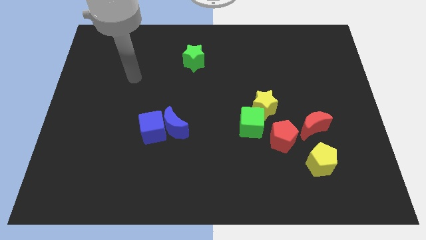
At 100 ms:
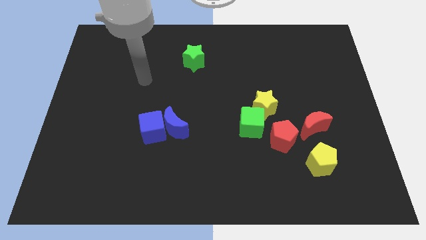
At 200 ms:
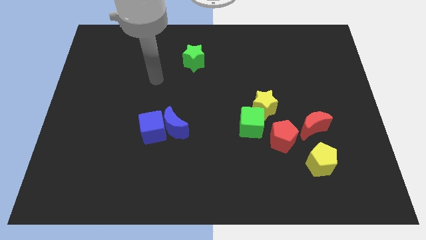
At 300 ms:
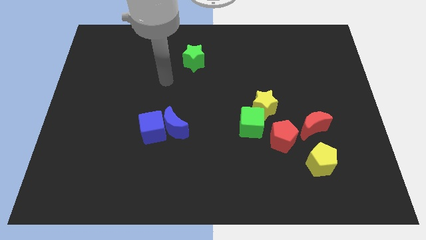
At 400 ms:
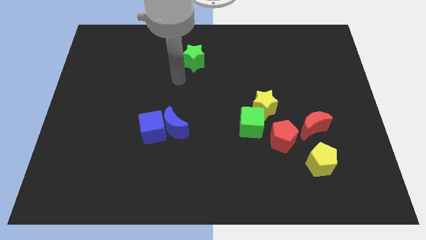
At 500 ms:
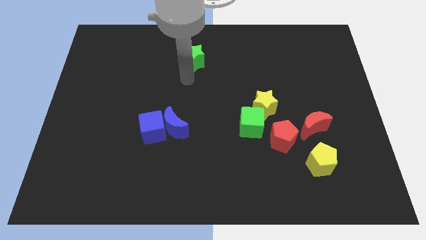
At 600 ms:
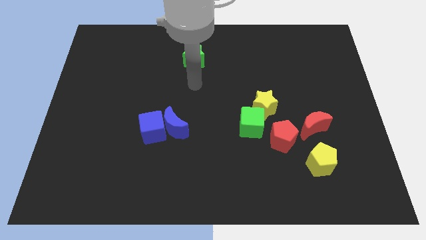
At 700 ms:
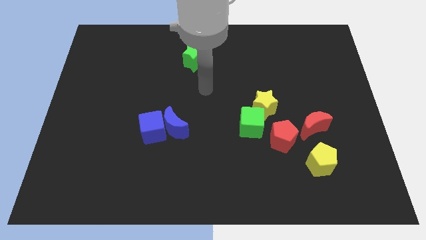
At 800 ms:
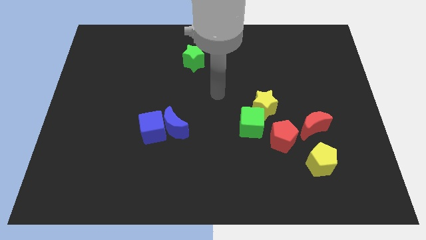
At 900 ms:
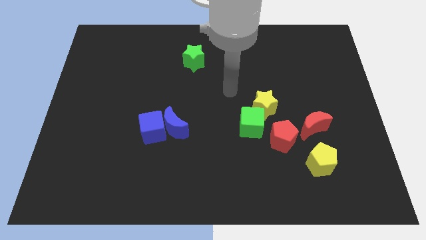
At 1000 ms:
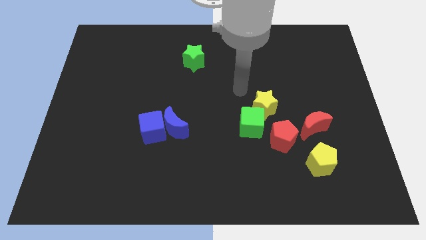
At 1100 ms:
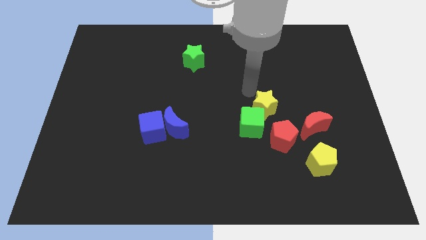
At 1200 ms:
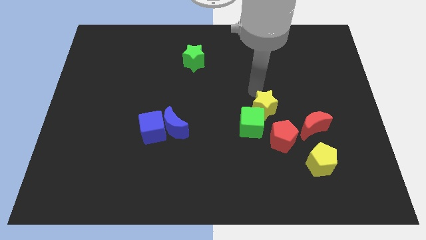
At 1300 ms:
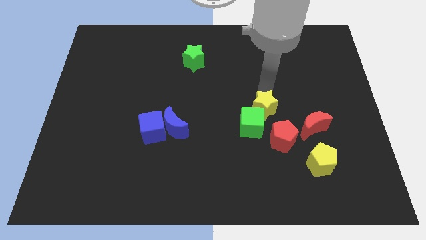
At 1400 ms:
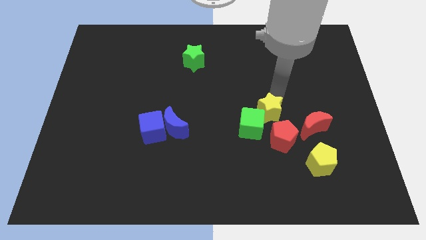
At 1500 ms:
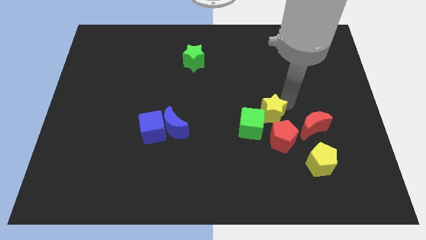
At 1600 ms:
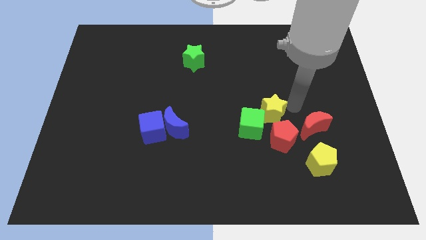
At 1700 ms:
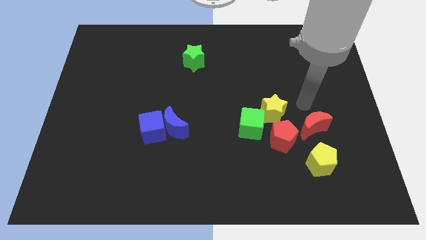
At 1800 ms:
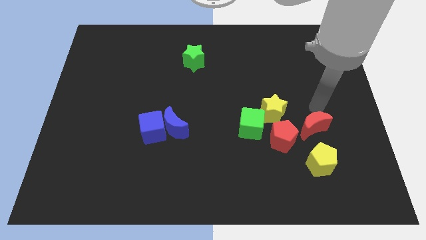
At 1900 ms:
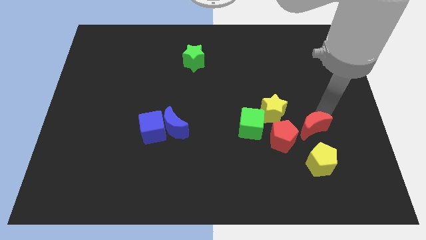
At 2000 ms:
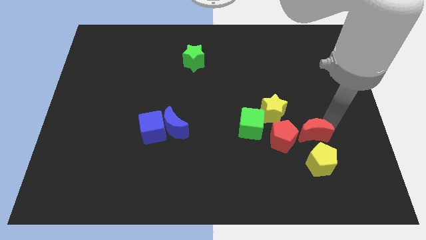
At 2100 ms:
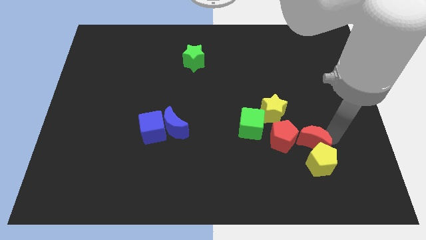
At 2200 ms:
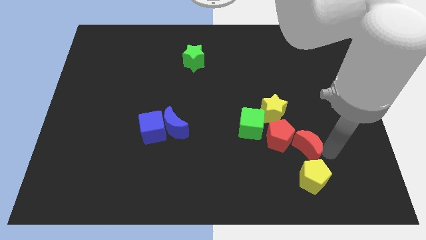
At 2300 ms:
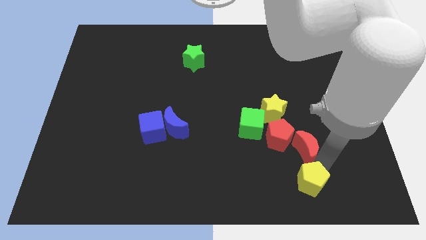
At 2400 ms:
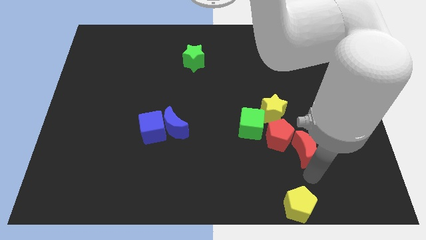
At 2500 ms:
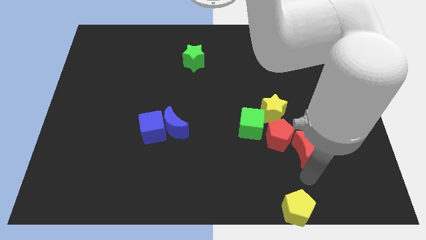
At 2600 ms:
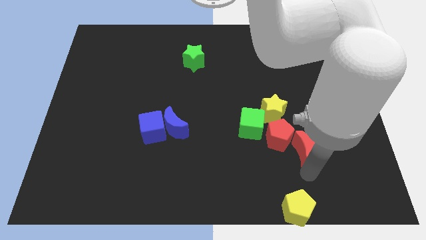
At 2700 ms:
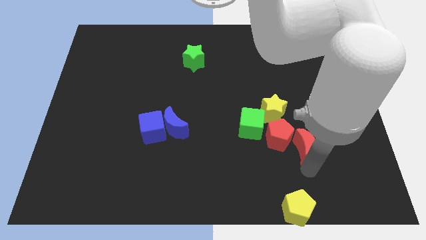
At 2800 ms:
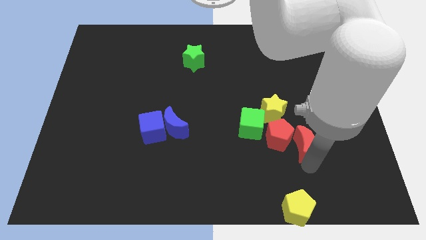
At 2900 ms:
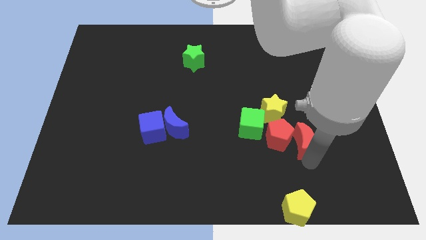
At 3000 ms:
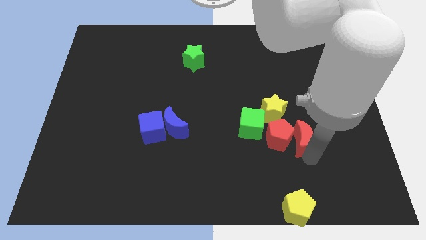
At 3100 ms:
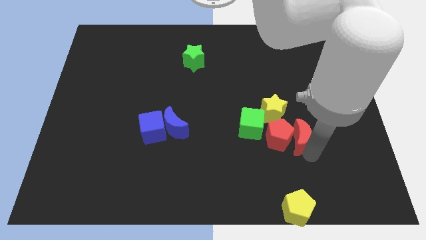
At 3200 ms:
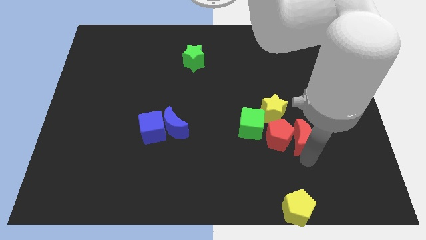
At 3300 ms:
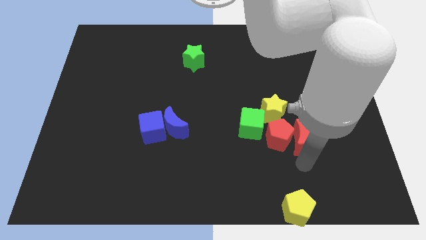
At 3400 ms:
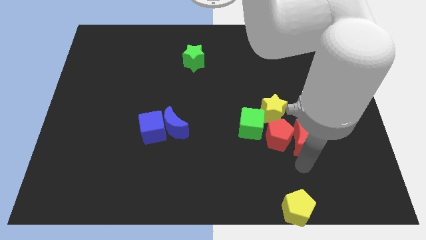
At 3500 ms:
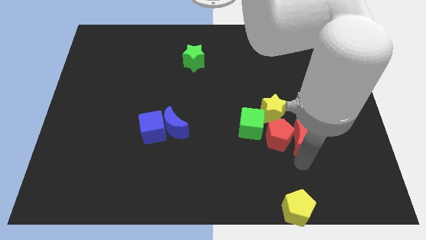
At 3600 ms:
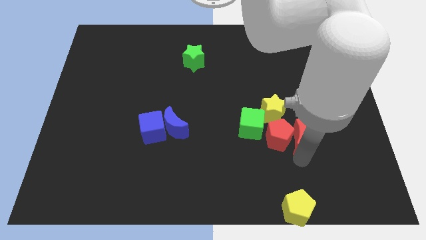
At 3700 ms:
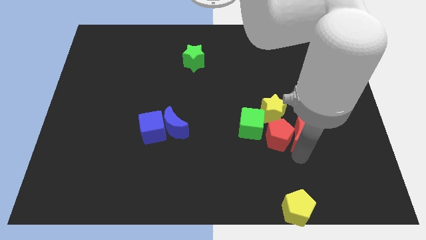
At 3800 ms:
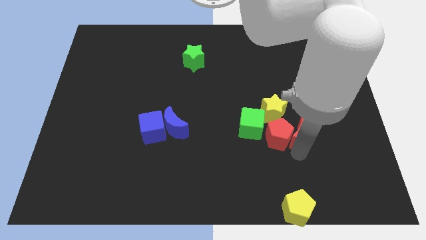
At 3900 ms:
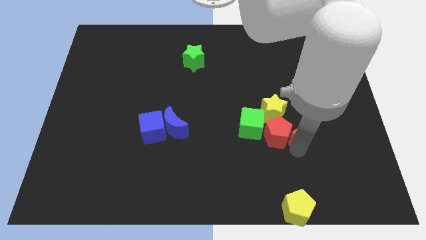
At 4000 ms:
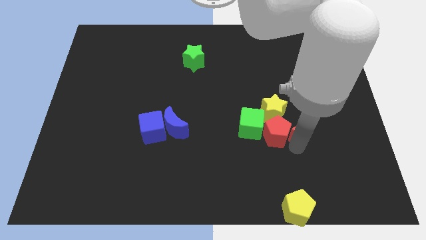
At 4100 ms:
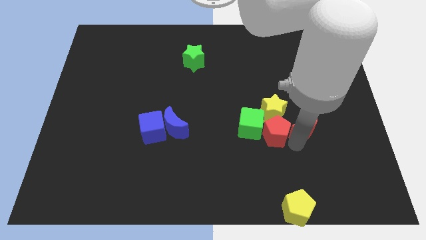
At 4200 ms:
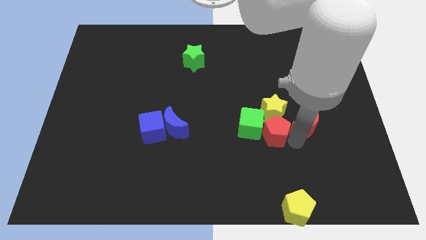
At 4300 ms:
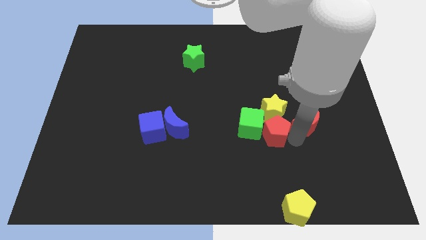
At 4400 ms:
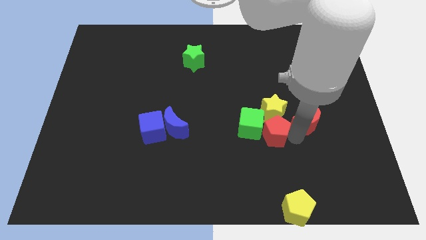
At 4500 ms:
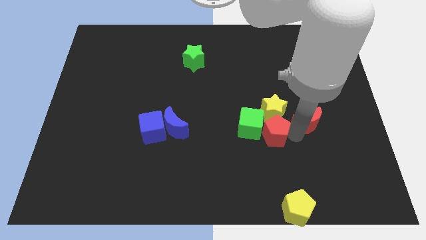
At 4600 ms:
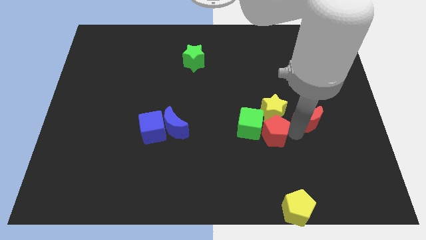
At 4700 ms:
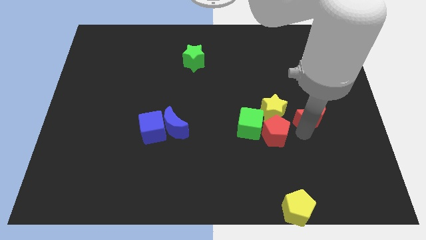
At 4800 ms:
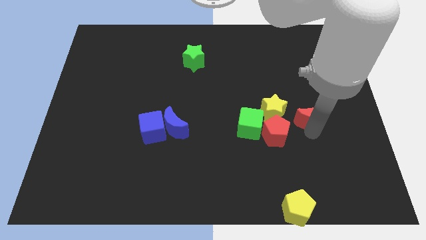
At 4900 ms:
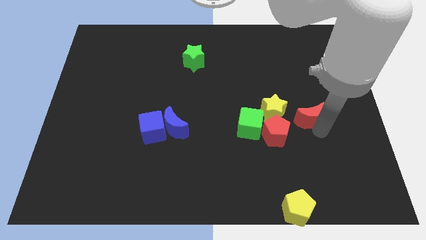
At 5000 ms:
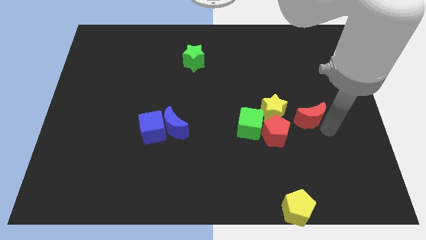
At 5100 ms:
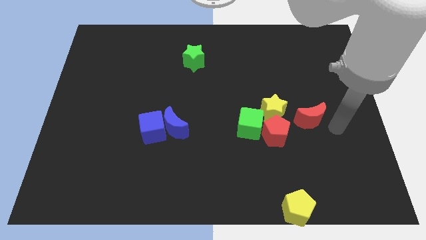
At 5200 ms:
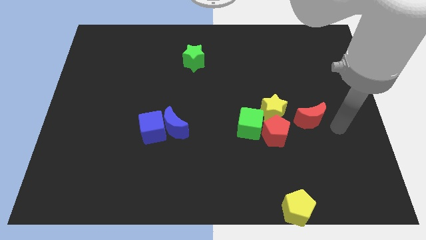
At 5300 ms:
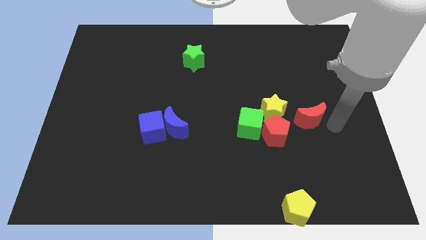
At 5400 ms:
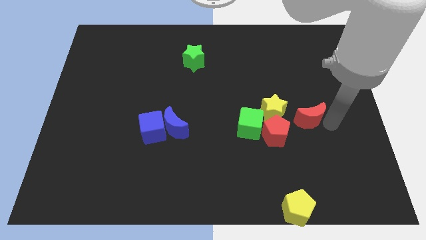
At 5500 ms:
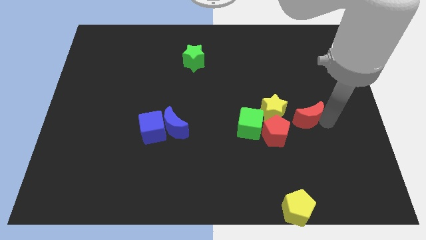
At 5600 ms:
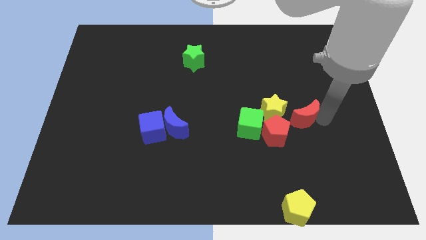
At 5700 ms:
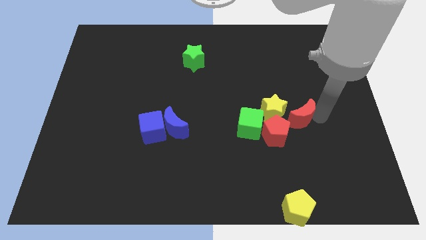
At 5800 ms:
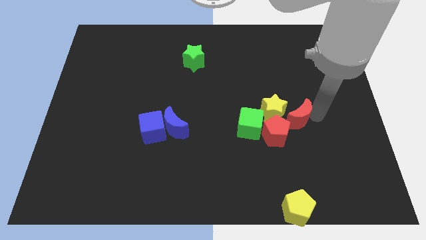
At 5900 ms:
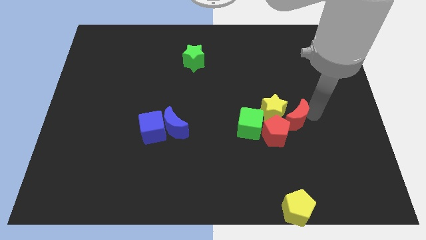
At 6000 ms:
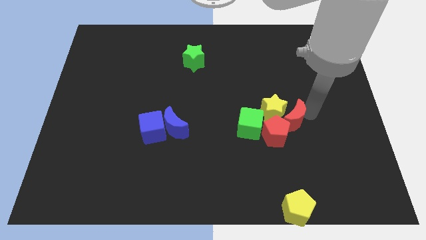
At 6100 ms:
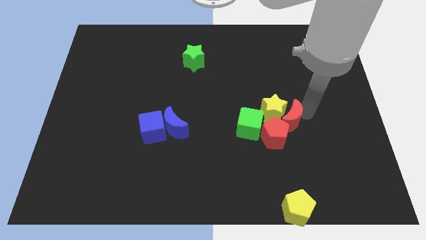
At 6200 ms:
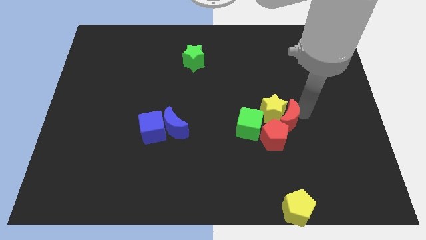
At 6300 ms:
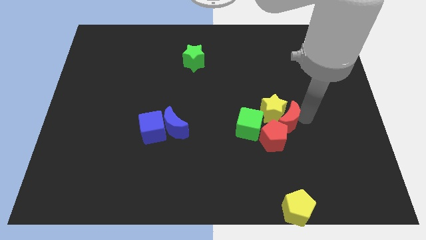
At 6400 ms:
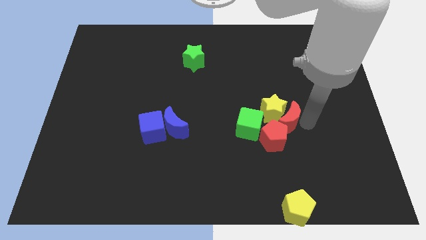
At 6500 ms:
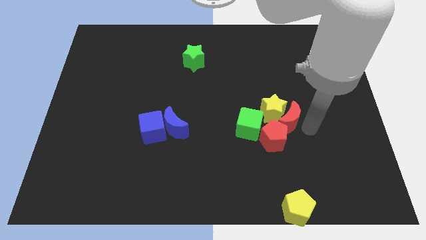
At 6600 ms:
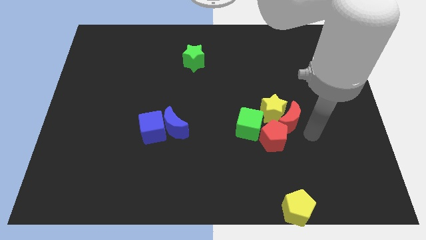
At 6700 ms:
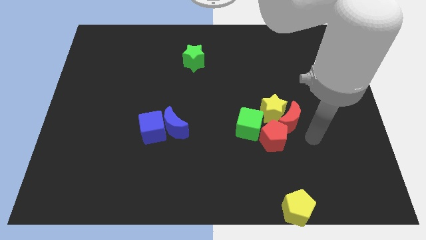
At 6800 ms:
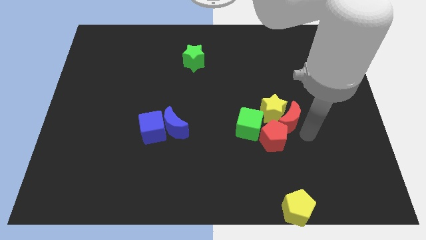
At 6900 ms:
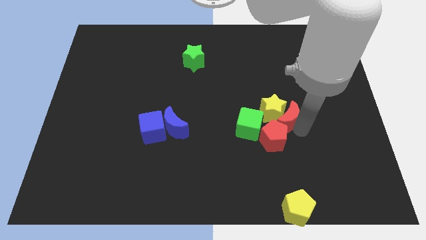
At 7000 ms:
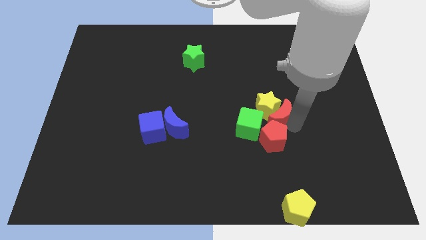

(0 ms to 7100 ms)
push the red moon diagonally up and to the right of the green cube
